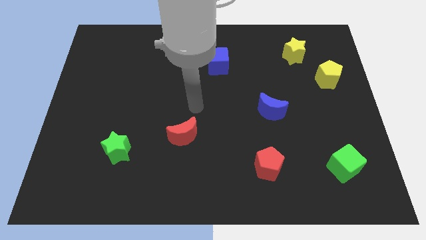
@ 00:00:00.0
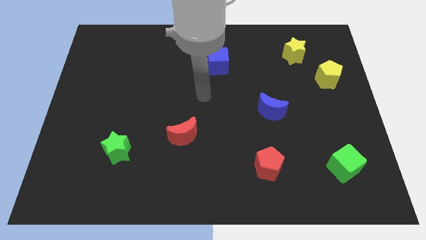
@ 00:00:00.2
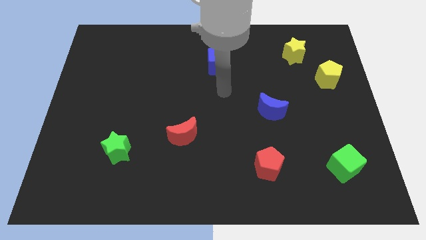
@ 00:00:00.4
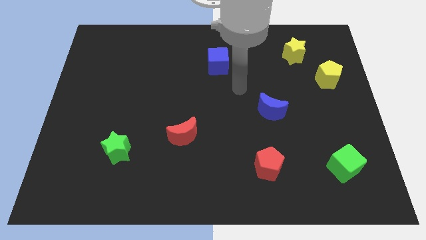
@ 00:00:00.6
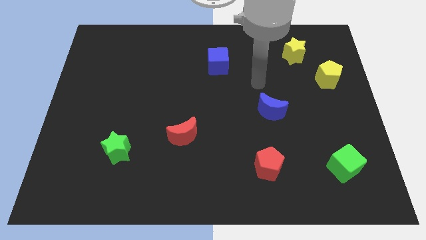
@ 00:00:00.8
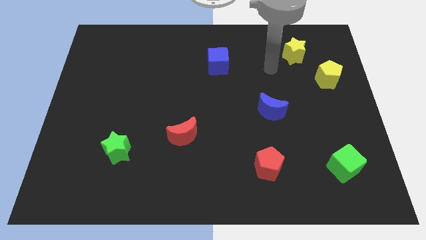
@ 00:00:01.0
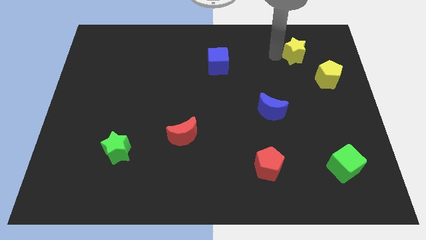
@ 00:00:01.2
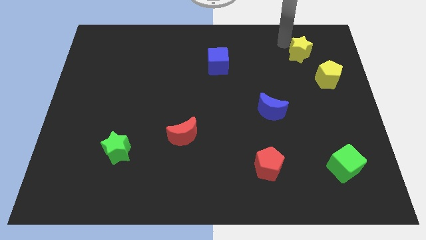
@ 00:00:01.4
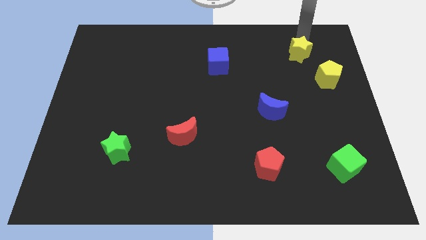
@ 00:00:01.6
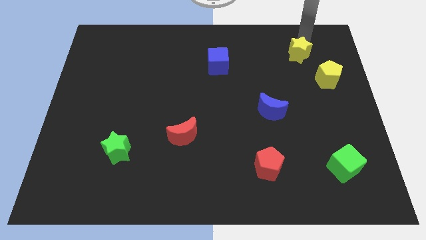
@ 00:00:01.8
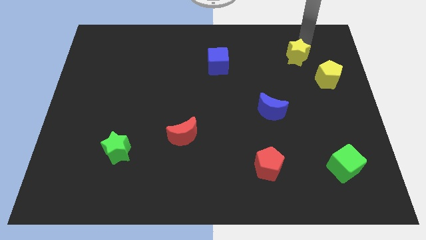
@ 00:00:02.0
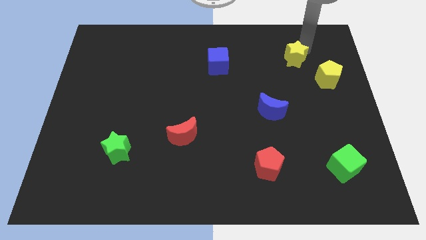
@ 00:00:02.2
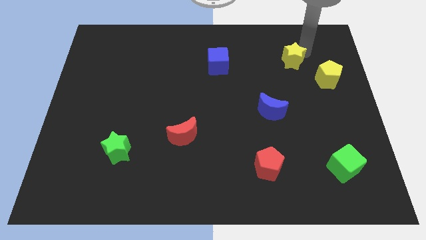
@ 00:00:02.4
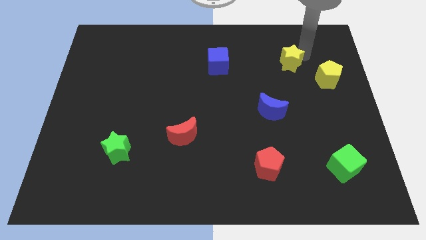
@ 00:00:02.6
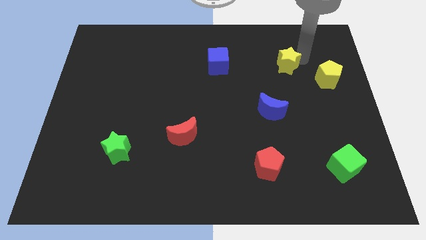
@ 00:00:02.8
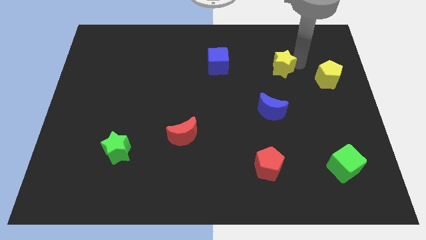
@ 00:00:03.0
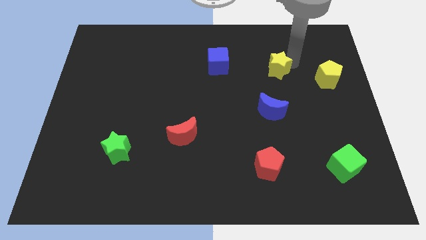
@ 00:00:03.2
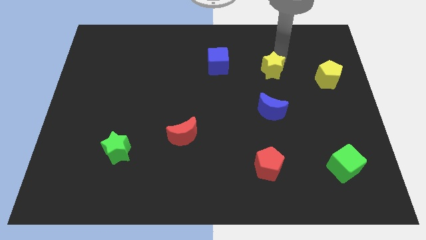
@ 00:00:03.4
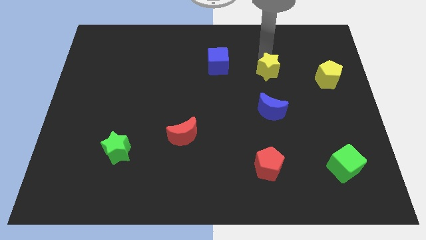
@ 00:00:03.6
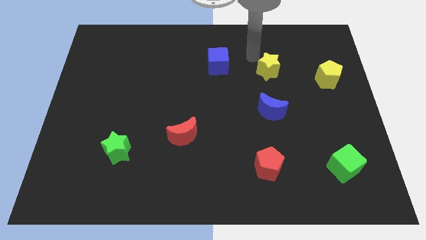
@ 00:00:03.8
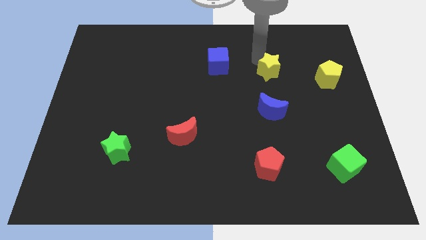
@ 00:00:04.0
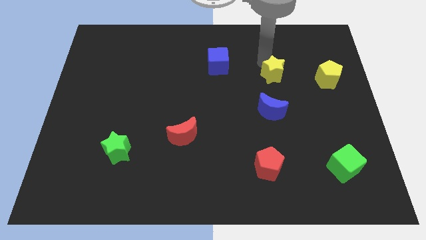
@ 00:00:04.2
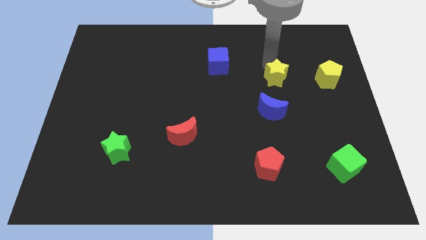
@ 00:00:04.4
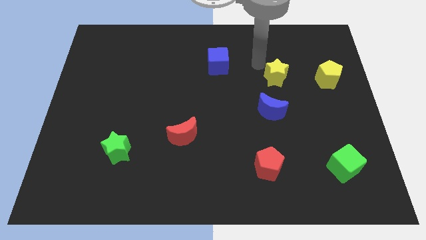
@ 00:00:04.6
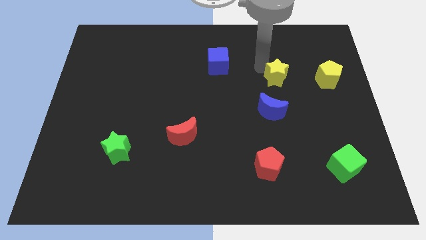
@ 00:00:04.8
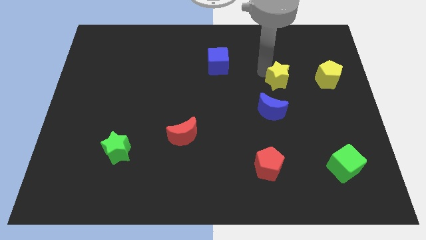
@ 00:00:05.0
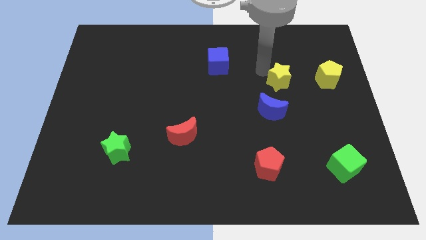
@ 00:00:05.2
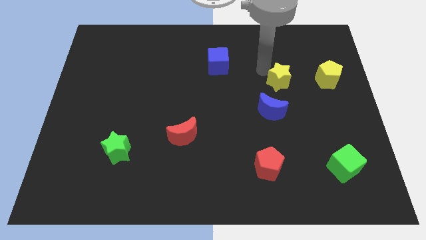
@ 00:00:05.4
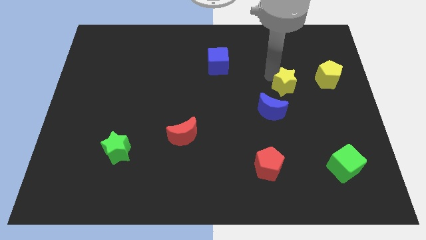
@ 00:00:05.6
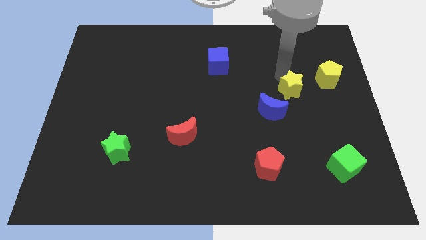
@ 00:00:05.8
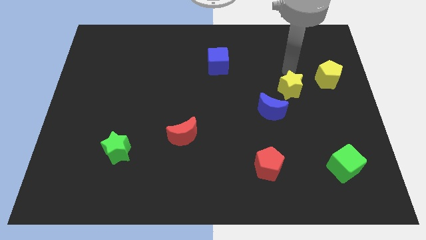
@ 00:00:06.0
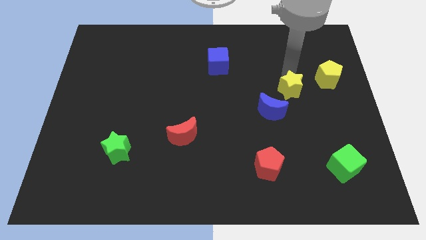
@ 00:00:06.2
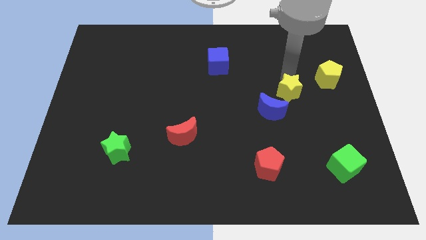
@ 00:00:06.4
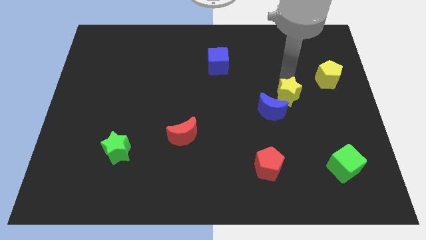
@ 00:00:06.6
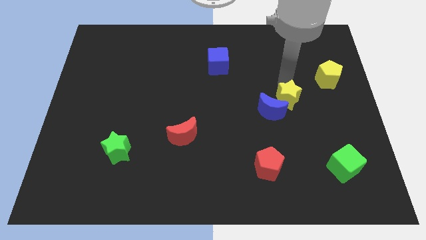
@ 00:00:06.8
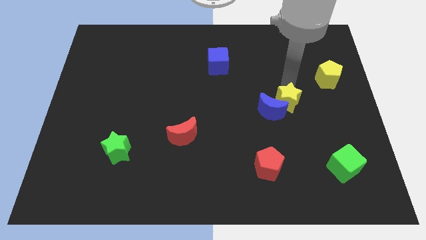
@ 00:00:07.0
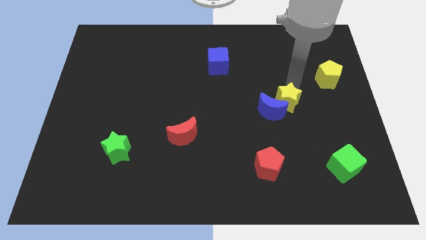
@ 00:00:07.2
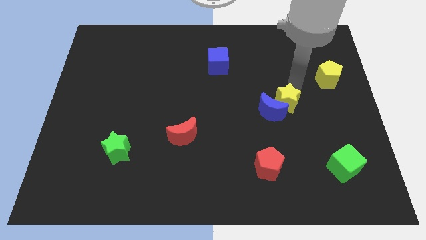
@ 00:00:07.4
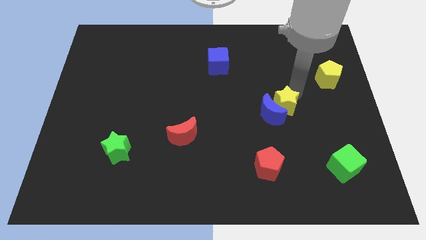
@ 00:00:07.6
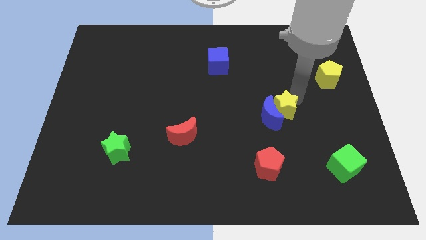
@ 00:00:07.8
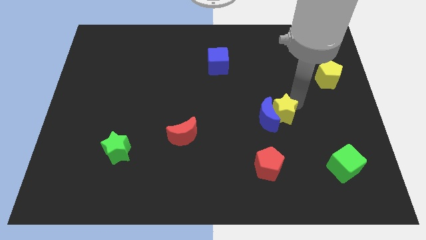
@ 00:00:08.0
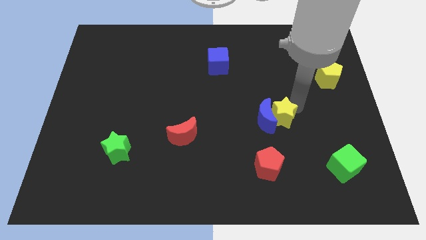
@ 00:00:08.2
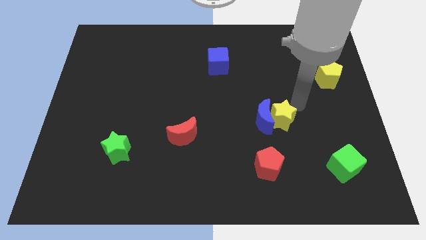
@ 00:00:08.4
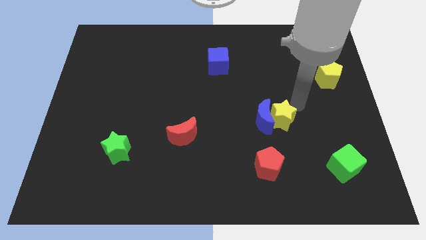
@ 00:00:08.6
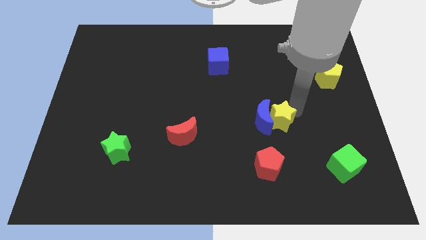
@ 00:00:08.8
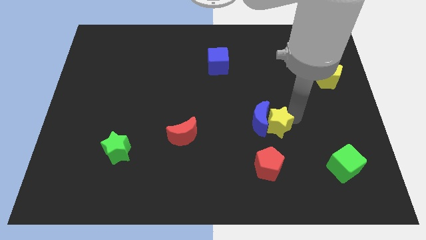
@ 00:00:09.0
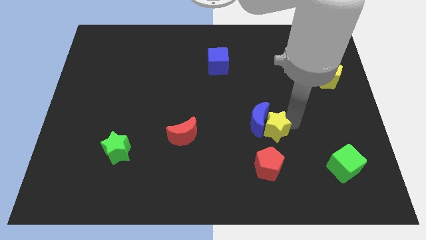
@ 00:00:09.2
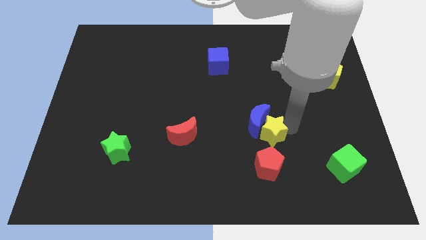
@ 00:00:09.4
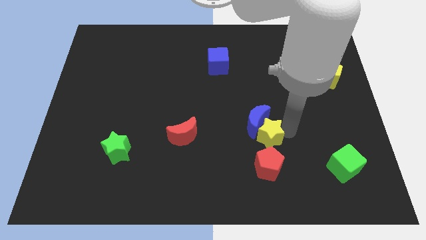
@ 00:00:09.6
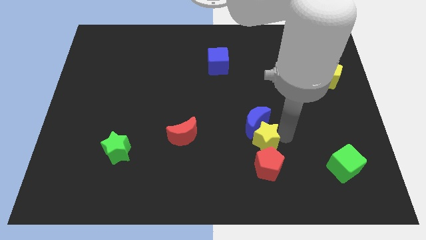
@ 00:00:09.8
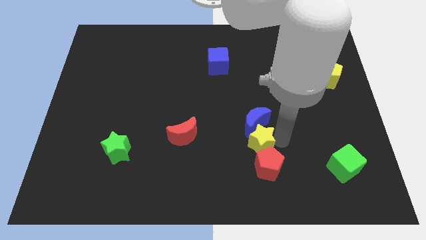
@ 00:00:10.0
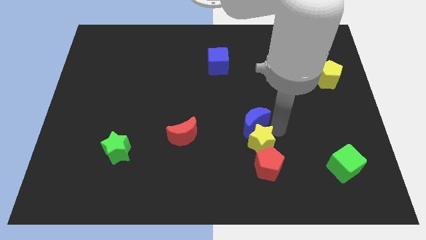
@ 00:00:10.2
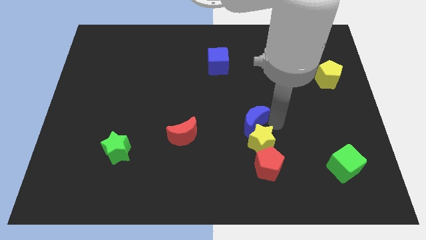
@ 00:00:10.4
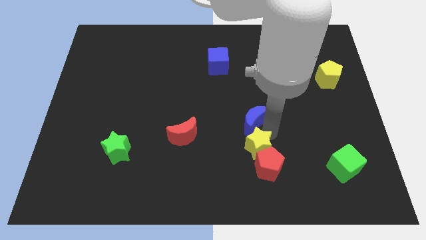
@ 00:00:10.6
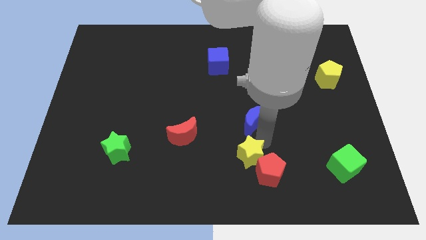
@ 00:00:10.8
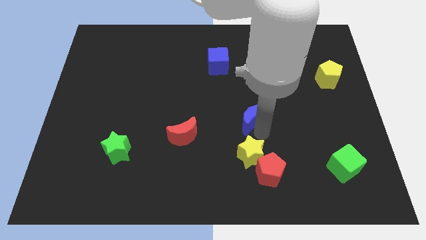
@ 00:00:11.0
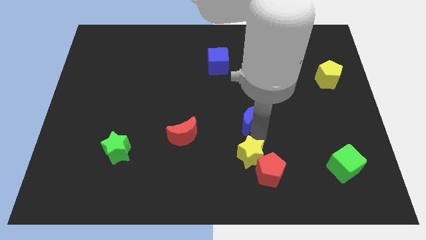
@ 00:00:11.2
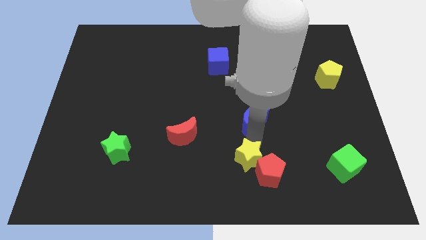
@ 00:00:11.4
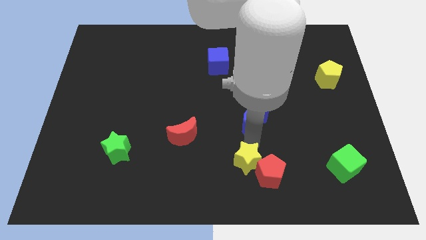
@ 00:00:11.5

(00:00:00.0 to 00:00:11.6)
move the yellow star to the bottom side

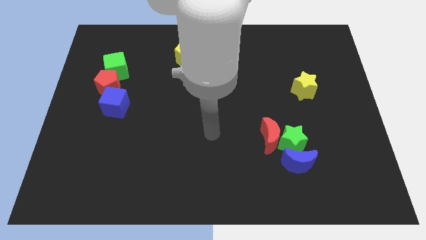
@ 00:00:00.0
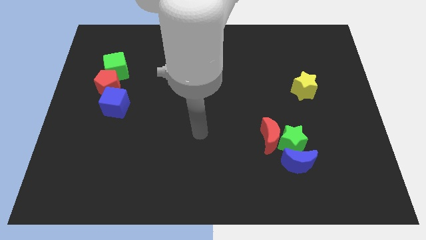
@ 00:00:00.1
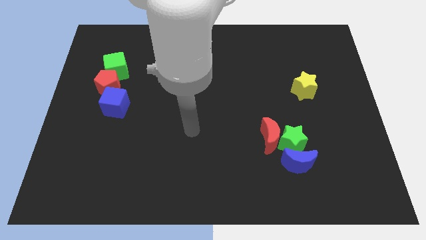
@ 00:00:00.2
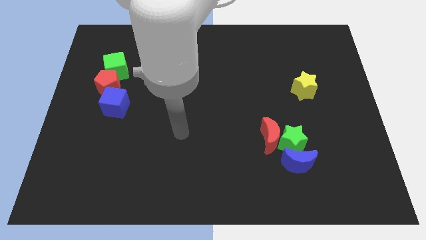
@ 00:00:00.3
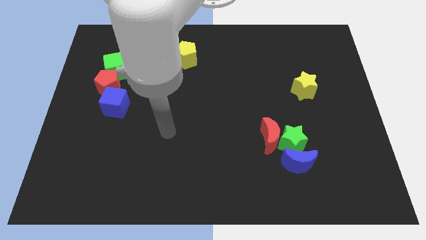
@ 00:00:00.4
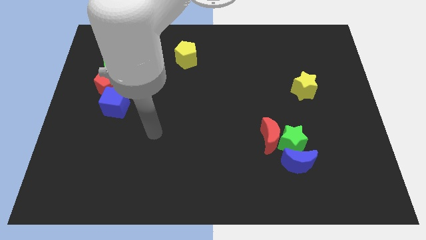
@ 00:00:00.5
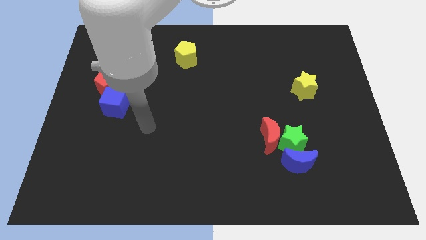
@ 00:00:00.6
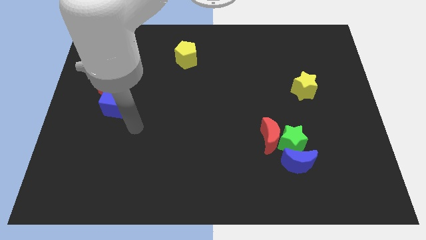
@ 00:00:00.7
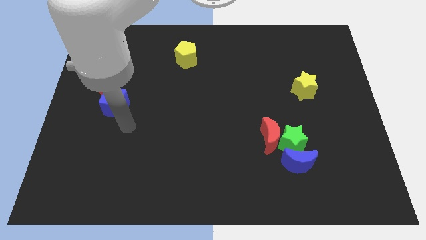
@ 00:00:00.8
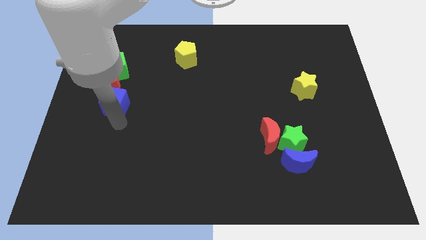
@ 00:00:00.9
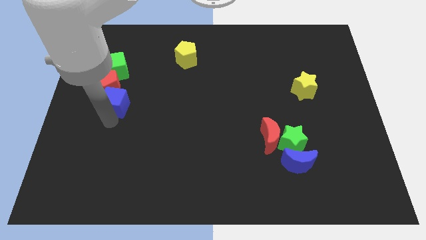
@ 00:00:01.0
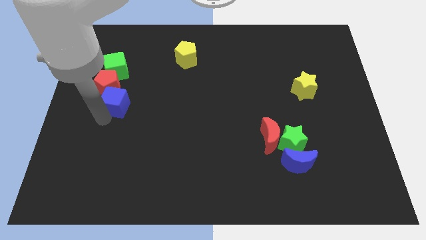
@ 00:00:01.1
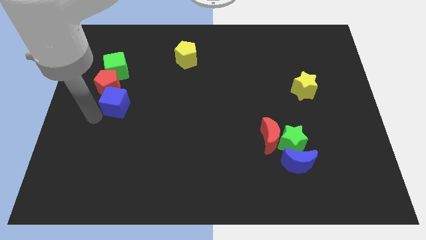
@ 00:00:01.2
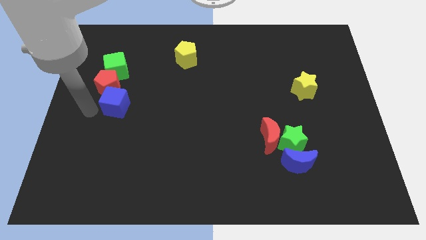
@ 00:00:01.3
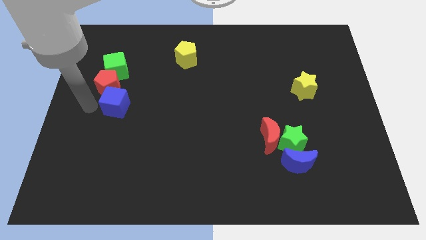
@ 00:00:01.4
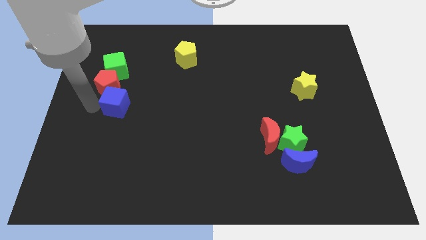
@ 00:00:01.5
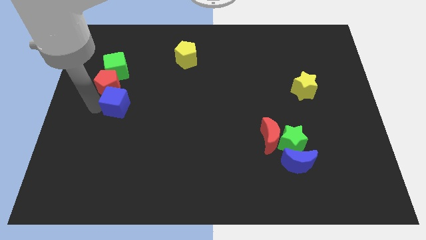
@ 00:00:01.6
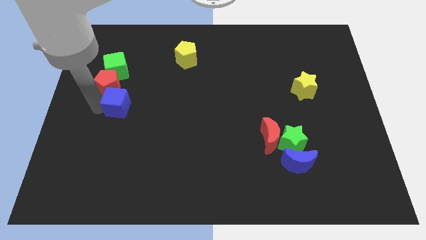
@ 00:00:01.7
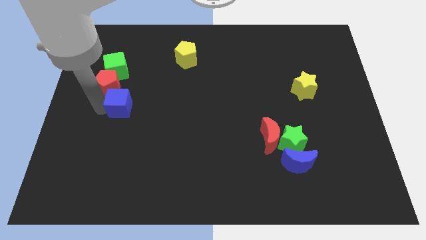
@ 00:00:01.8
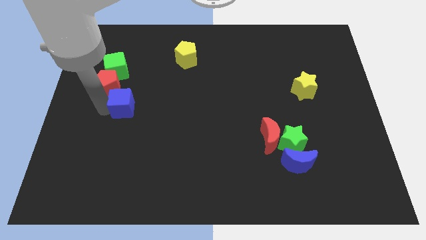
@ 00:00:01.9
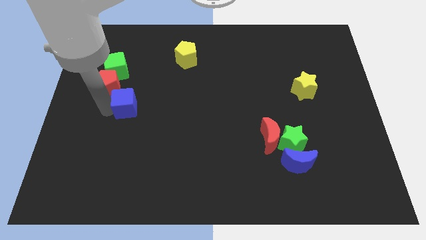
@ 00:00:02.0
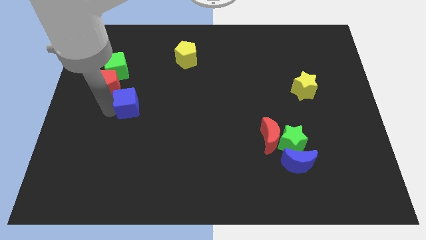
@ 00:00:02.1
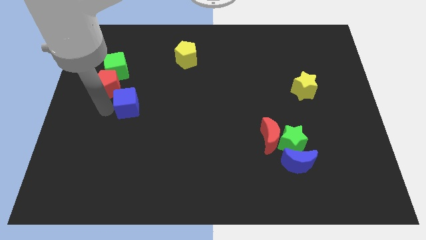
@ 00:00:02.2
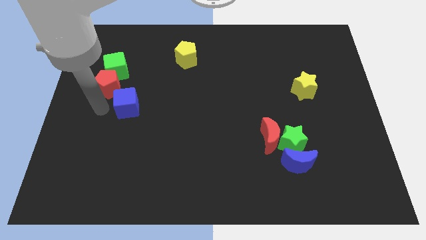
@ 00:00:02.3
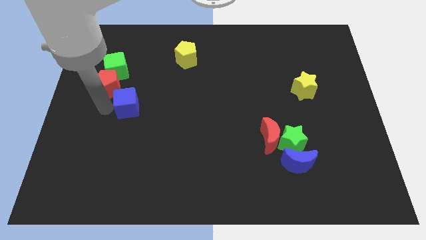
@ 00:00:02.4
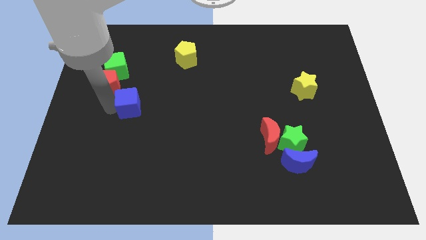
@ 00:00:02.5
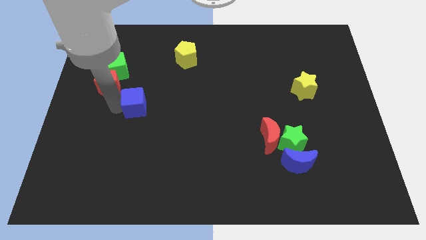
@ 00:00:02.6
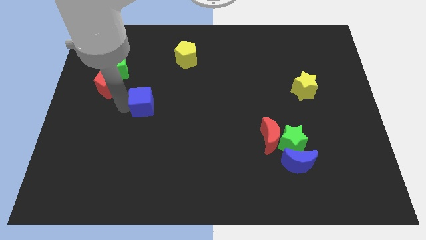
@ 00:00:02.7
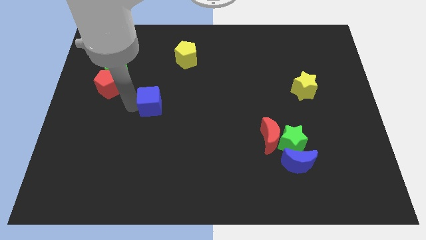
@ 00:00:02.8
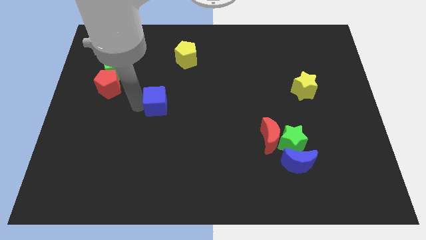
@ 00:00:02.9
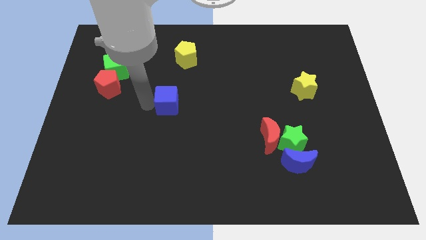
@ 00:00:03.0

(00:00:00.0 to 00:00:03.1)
put the blue cube to the middle
